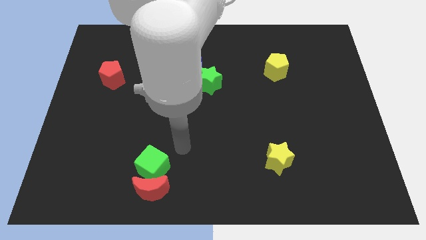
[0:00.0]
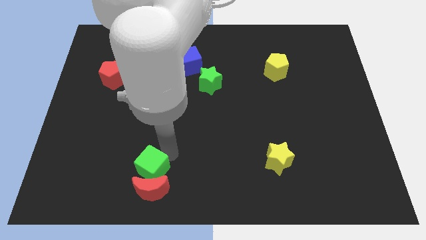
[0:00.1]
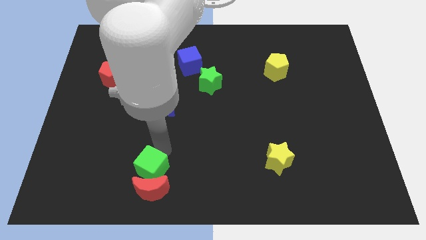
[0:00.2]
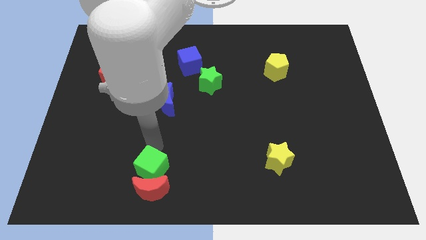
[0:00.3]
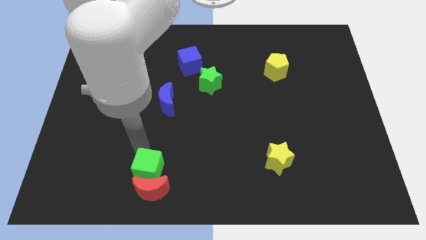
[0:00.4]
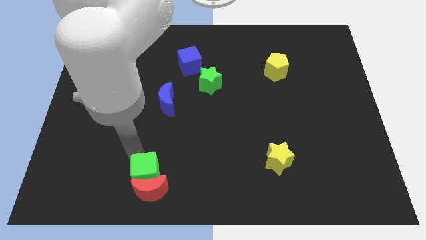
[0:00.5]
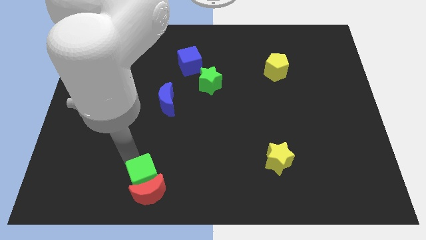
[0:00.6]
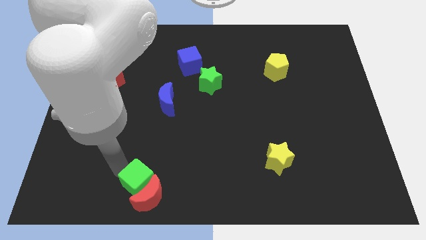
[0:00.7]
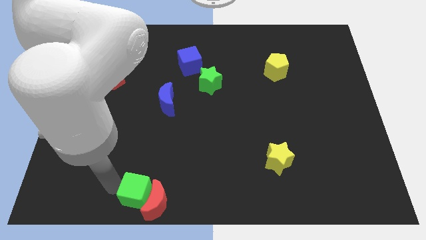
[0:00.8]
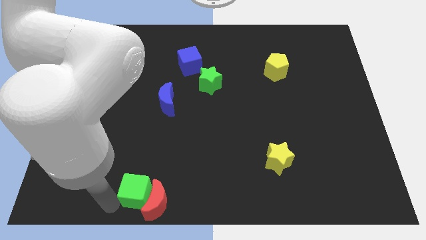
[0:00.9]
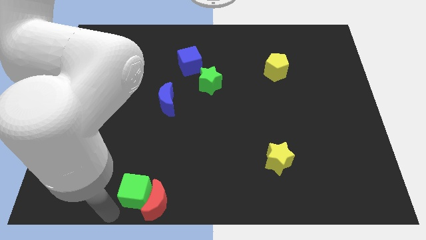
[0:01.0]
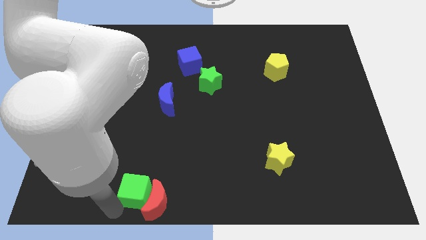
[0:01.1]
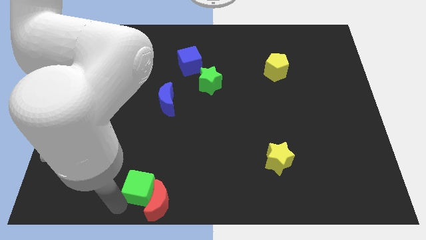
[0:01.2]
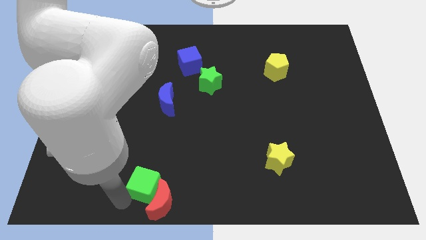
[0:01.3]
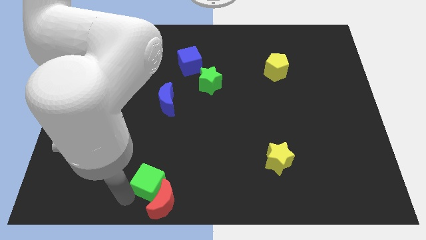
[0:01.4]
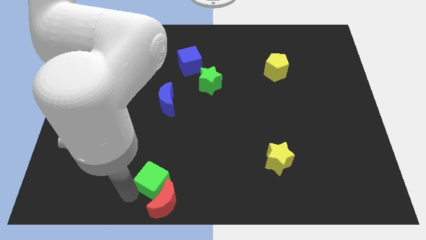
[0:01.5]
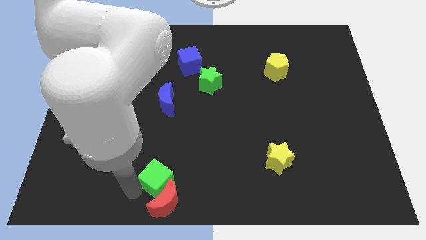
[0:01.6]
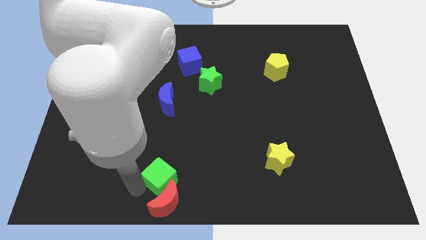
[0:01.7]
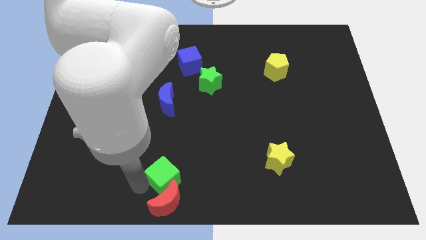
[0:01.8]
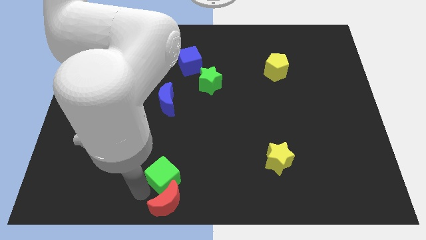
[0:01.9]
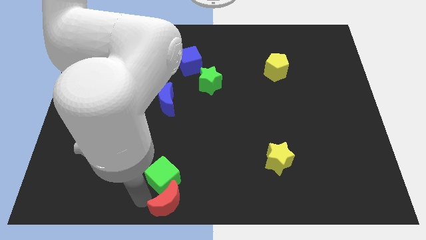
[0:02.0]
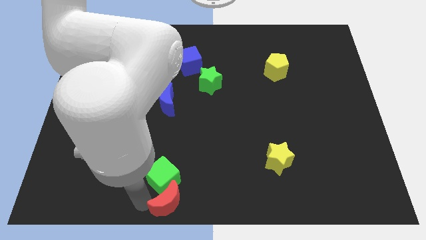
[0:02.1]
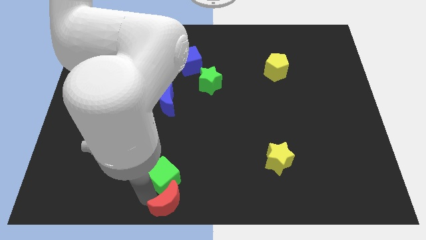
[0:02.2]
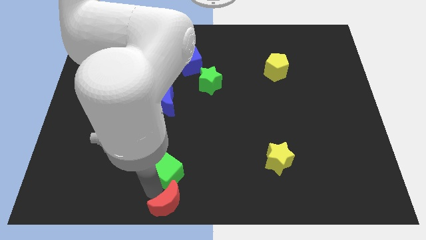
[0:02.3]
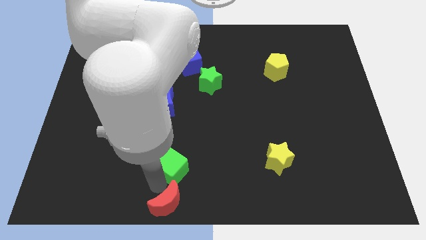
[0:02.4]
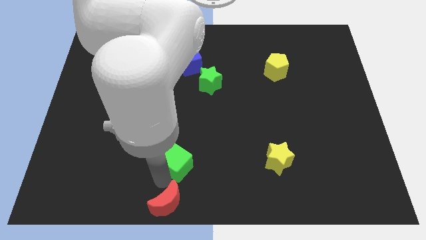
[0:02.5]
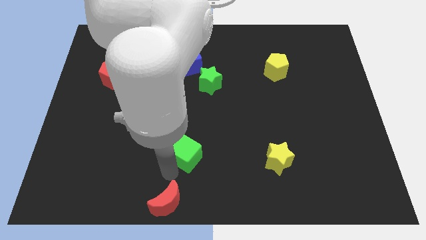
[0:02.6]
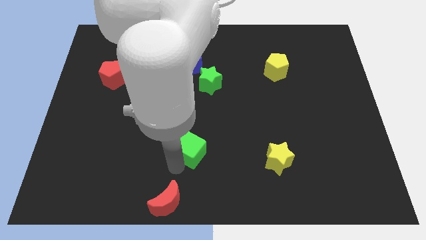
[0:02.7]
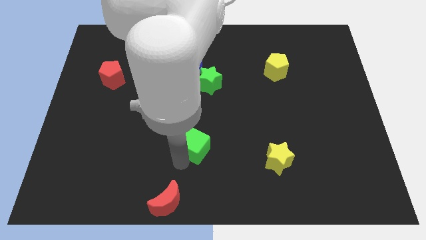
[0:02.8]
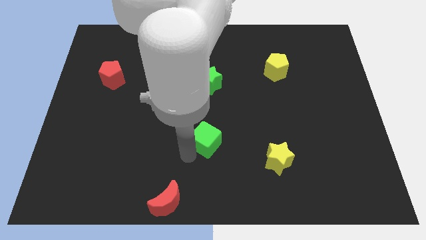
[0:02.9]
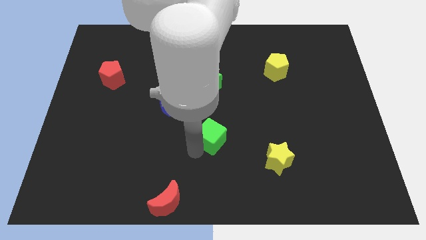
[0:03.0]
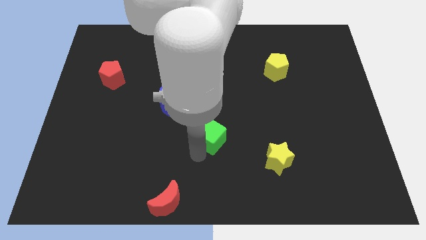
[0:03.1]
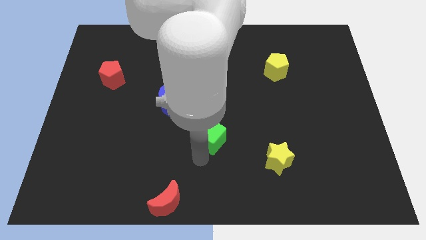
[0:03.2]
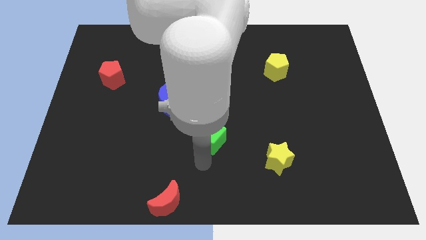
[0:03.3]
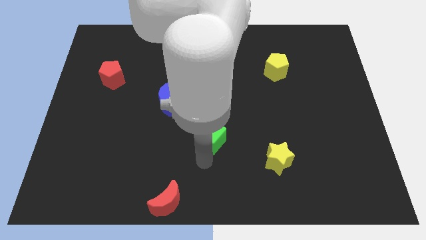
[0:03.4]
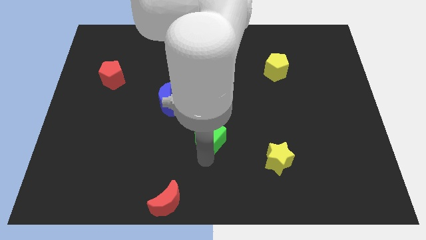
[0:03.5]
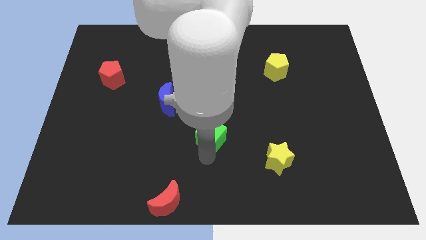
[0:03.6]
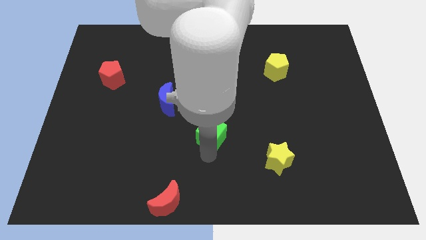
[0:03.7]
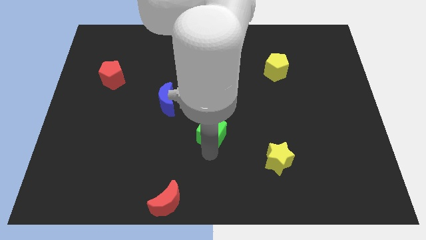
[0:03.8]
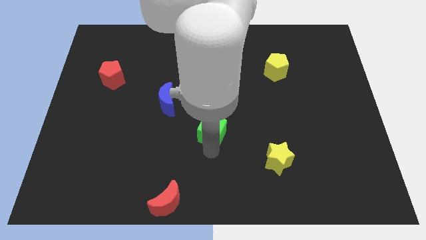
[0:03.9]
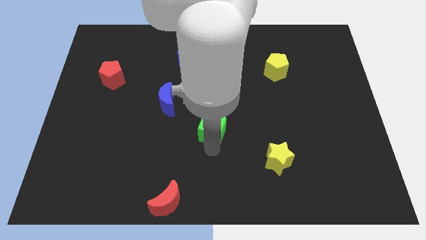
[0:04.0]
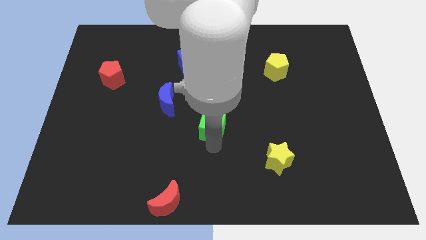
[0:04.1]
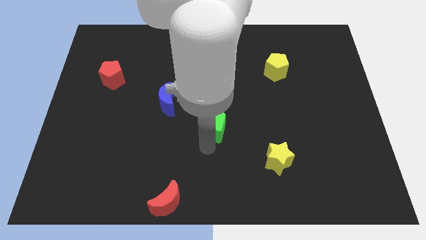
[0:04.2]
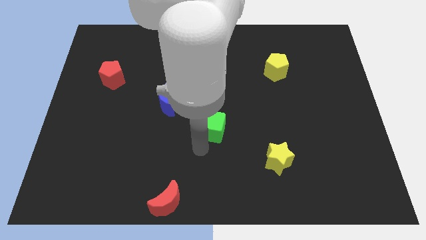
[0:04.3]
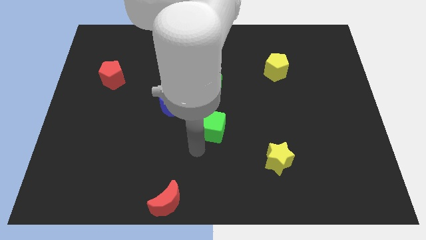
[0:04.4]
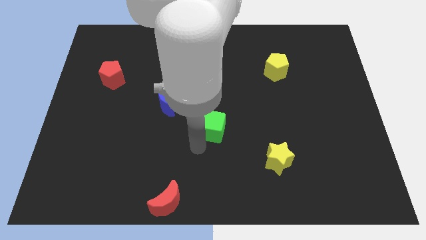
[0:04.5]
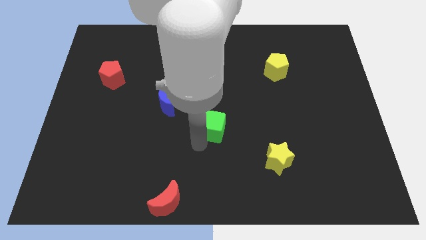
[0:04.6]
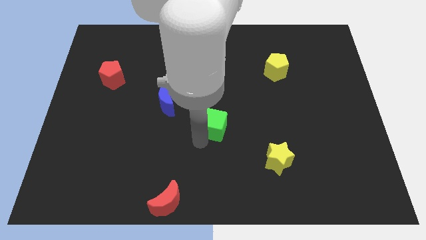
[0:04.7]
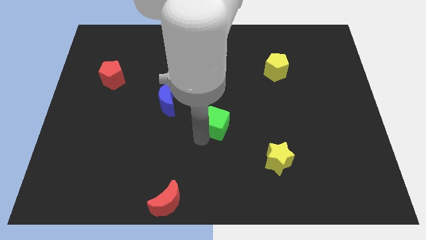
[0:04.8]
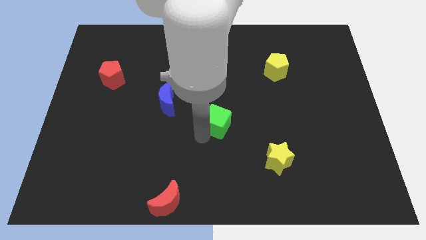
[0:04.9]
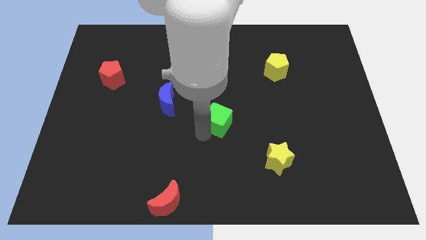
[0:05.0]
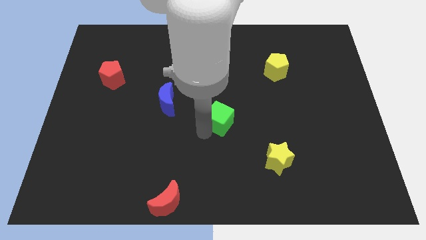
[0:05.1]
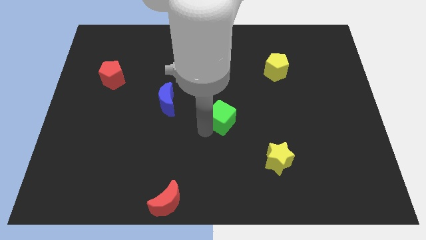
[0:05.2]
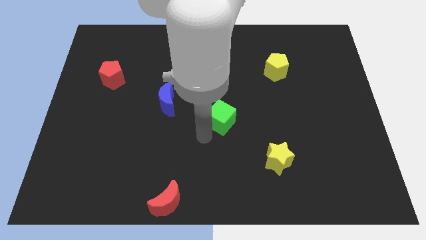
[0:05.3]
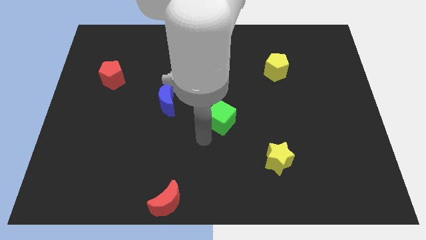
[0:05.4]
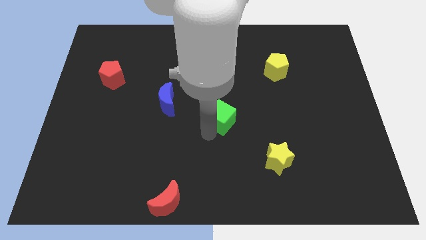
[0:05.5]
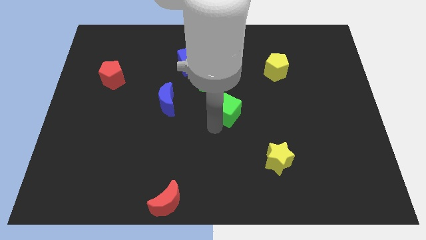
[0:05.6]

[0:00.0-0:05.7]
slide the green cube upwards and then right

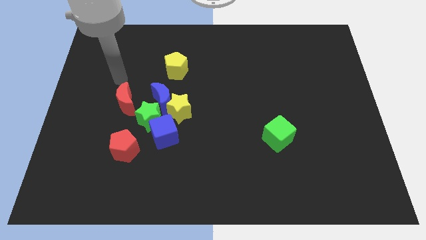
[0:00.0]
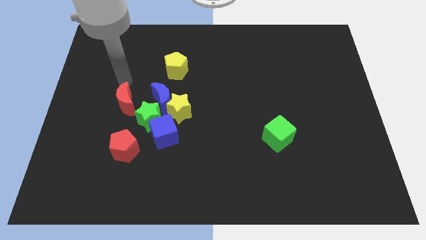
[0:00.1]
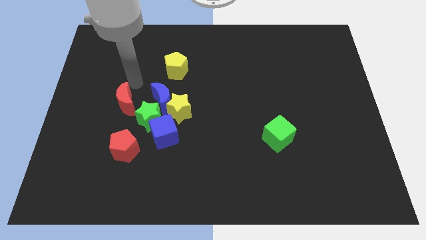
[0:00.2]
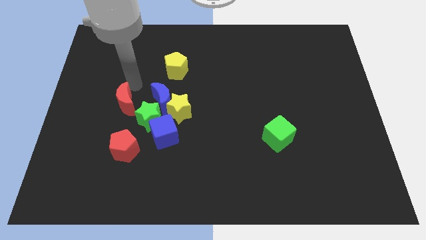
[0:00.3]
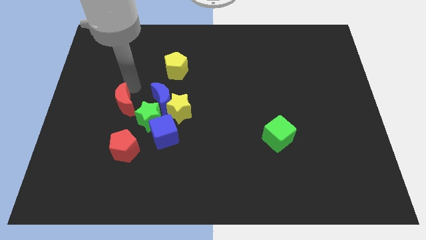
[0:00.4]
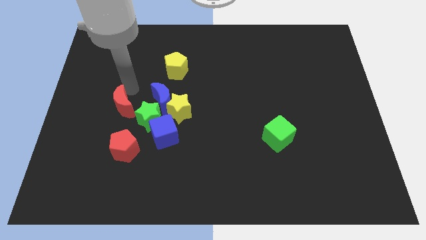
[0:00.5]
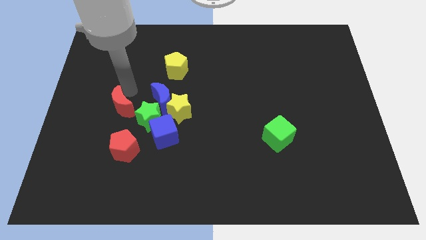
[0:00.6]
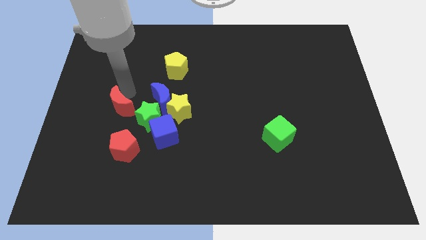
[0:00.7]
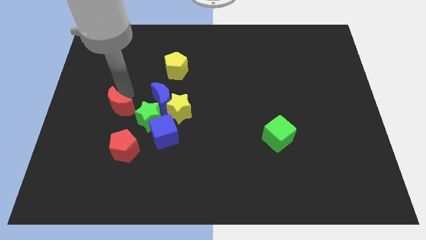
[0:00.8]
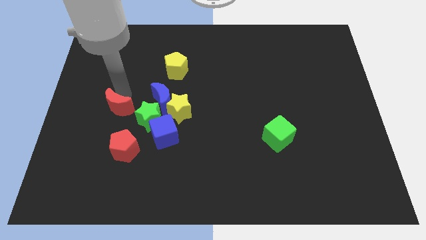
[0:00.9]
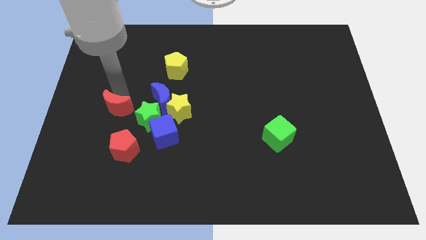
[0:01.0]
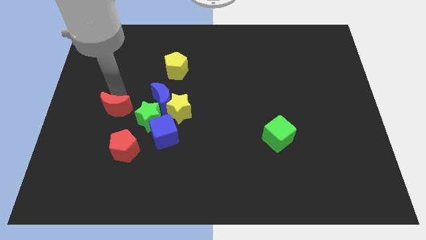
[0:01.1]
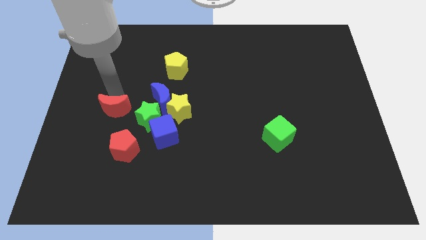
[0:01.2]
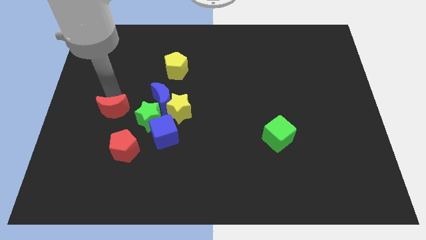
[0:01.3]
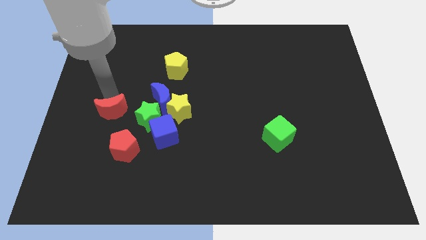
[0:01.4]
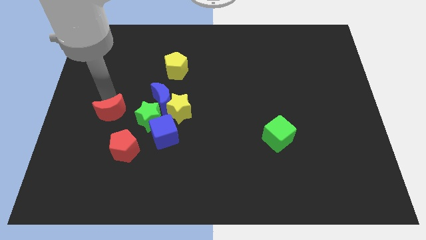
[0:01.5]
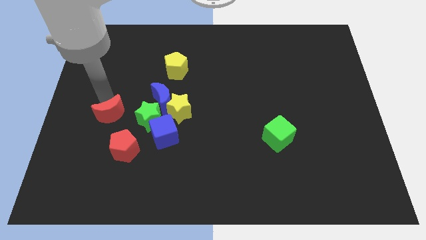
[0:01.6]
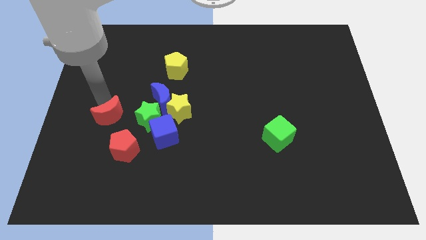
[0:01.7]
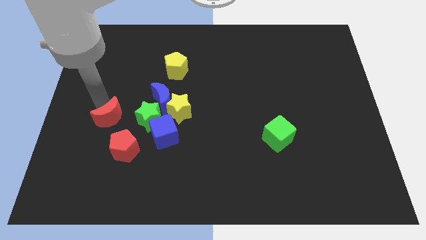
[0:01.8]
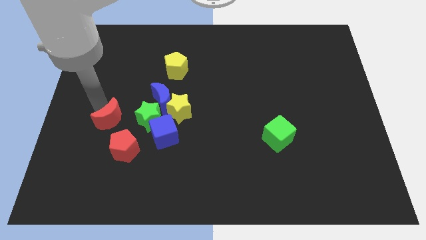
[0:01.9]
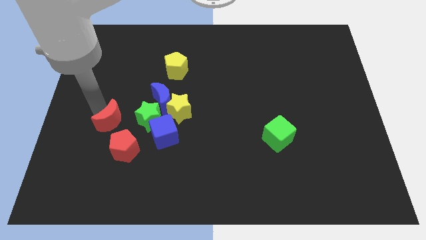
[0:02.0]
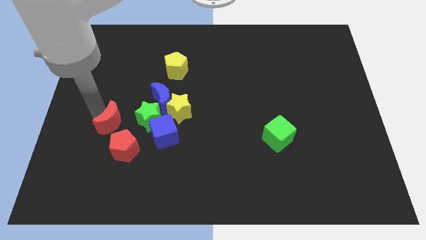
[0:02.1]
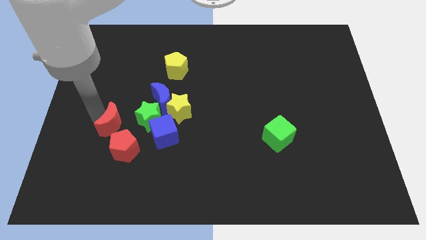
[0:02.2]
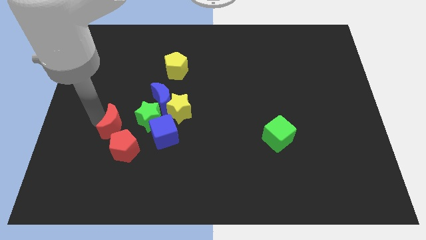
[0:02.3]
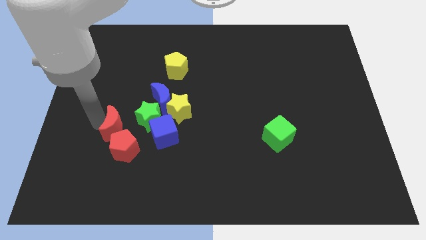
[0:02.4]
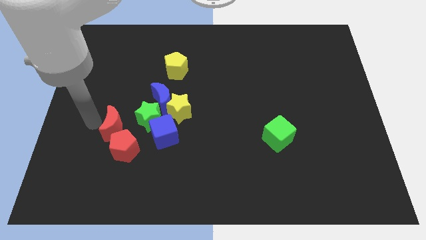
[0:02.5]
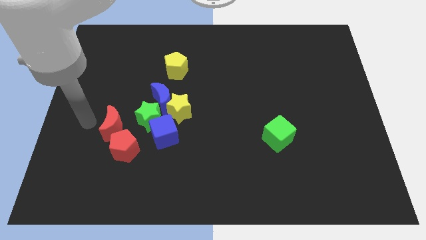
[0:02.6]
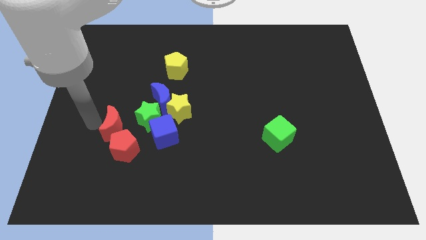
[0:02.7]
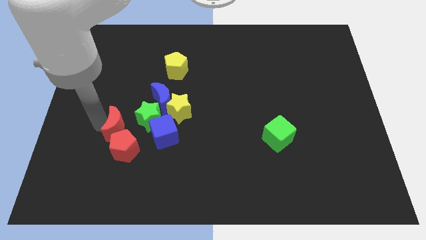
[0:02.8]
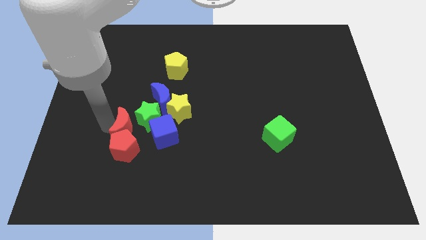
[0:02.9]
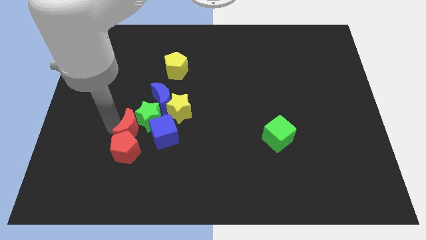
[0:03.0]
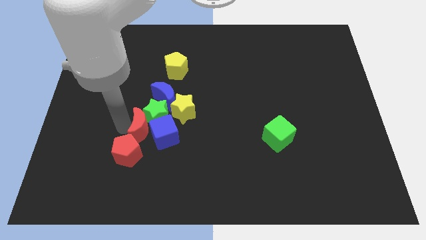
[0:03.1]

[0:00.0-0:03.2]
slide the red moon downwards and right diagonally a little bit
